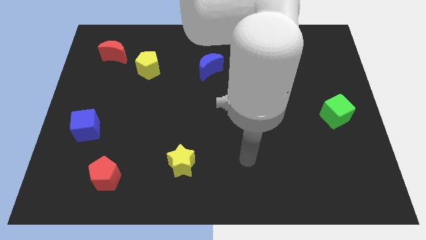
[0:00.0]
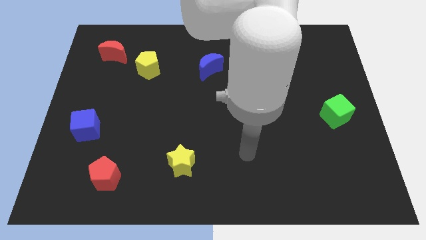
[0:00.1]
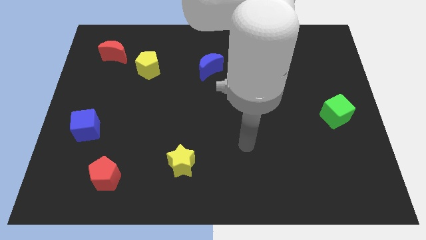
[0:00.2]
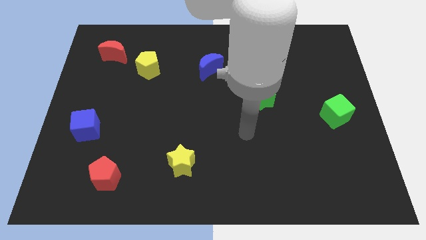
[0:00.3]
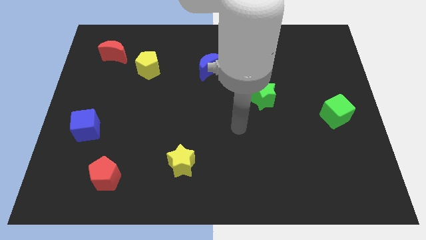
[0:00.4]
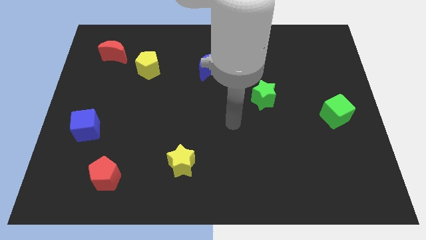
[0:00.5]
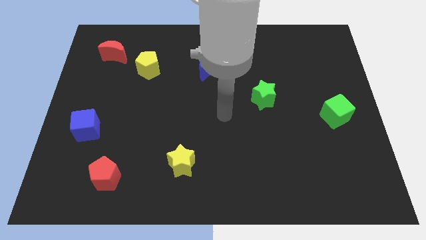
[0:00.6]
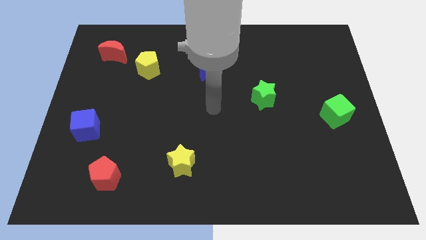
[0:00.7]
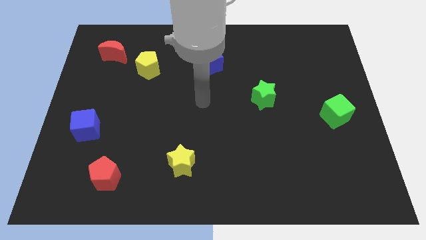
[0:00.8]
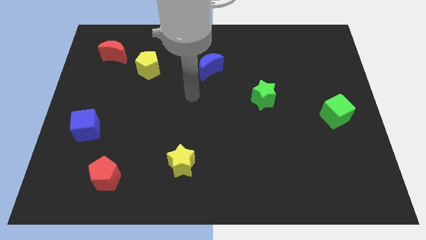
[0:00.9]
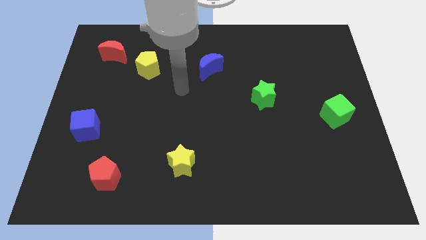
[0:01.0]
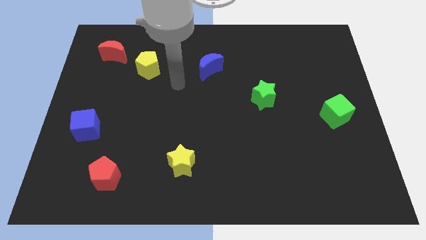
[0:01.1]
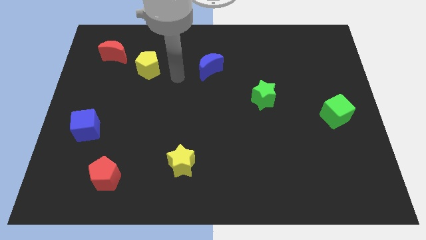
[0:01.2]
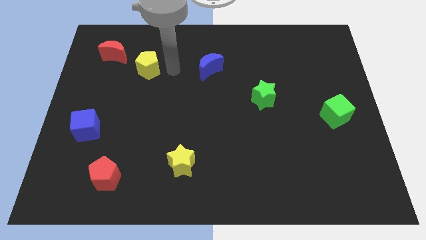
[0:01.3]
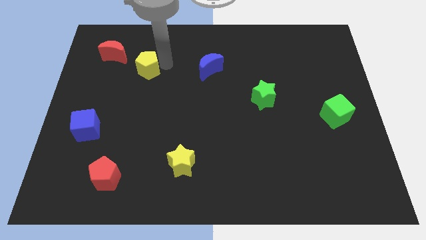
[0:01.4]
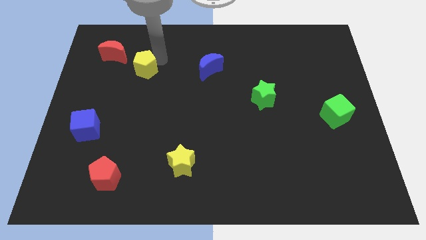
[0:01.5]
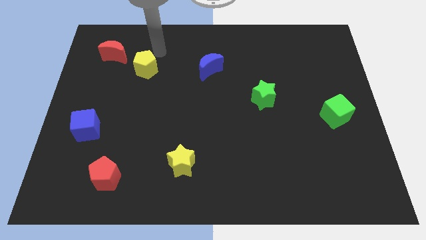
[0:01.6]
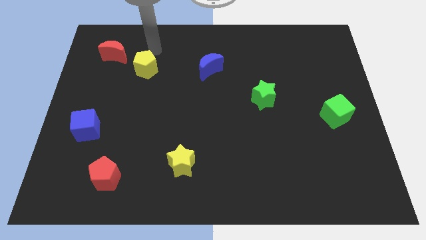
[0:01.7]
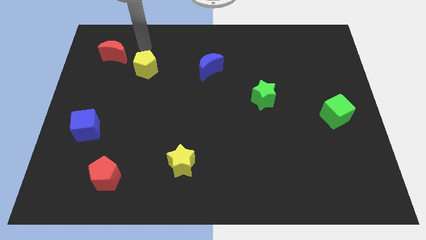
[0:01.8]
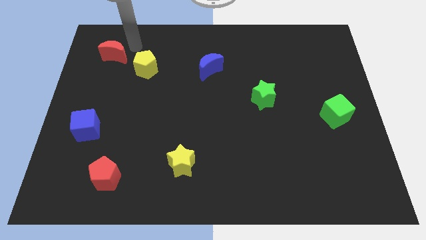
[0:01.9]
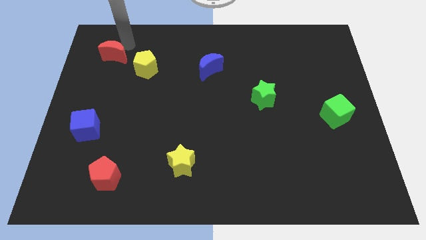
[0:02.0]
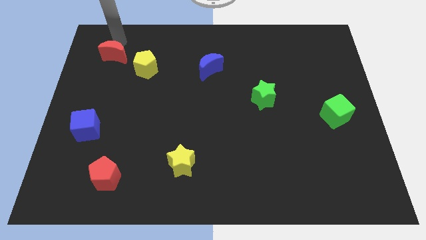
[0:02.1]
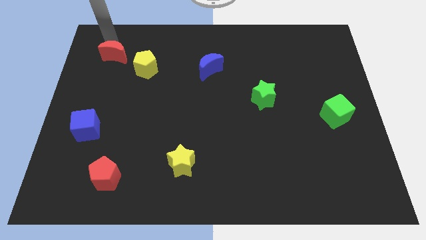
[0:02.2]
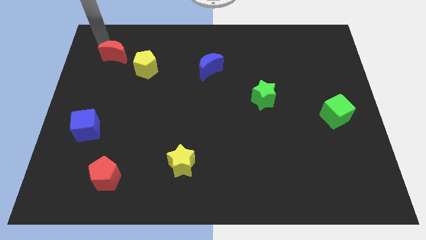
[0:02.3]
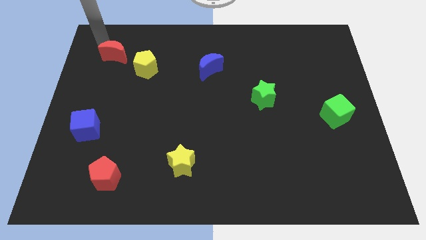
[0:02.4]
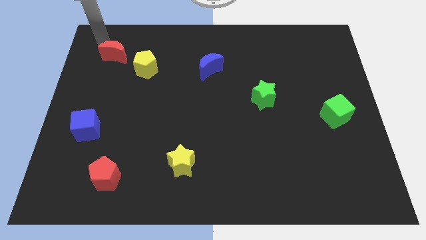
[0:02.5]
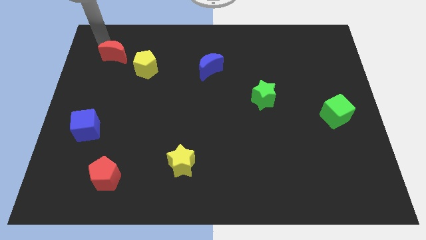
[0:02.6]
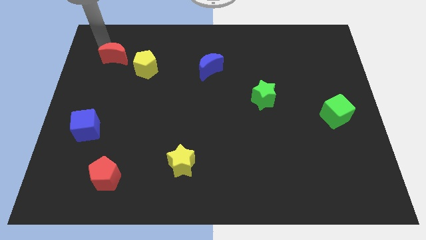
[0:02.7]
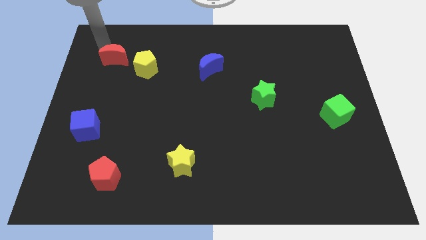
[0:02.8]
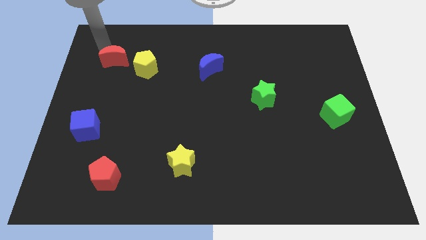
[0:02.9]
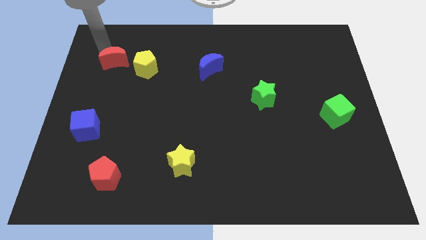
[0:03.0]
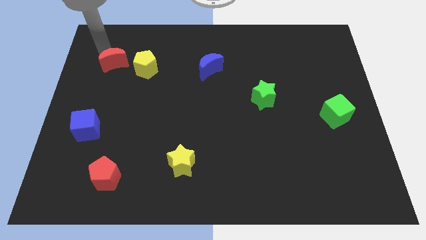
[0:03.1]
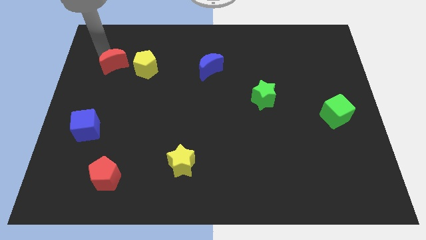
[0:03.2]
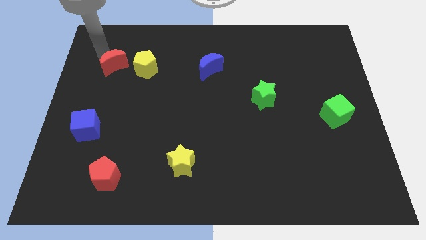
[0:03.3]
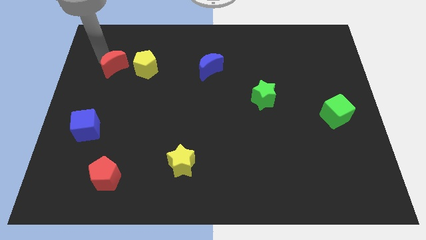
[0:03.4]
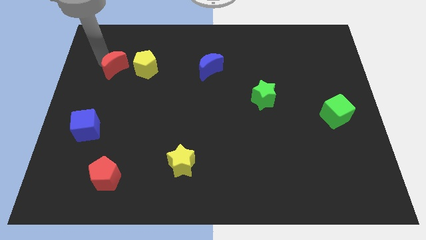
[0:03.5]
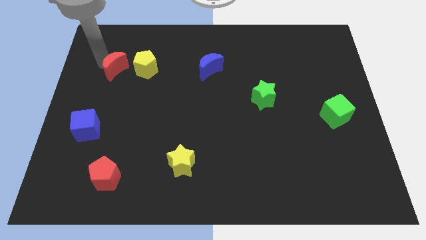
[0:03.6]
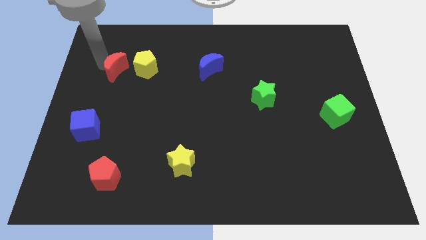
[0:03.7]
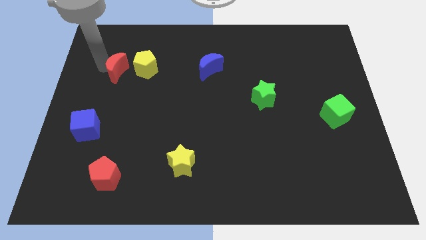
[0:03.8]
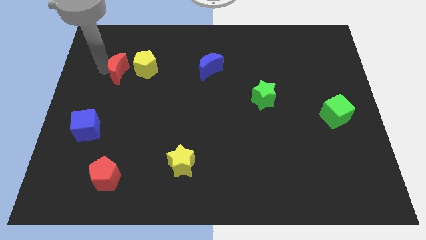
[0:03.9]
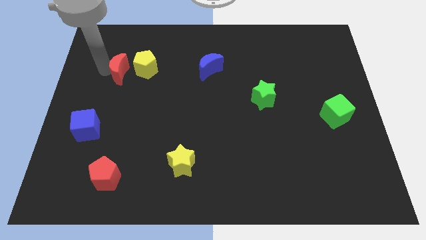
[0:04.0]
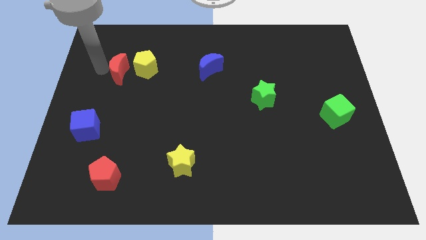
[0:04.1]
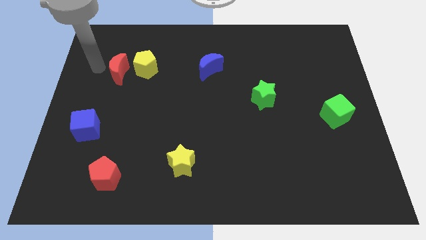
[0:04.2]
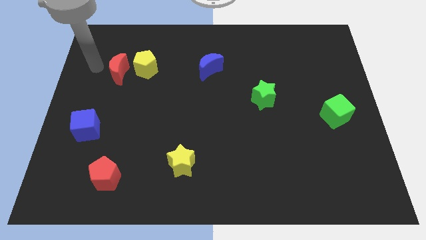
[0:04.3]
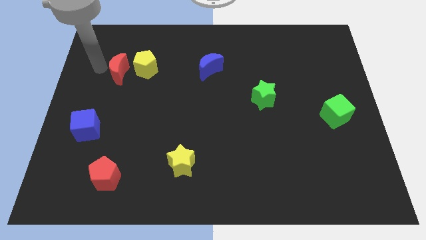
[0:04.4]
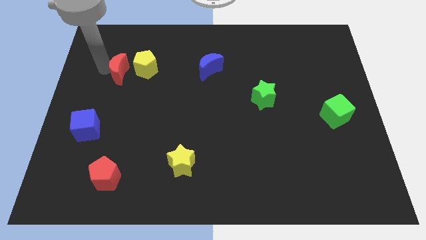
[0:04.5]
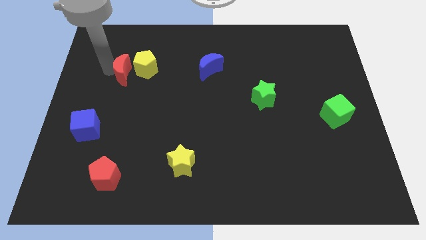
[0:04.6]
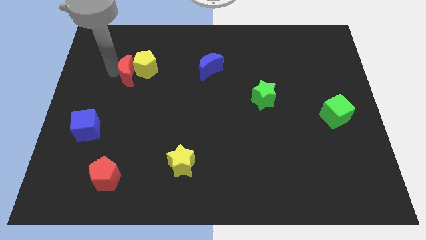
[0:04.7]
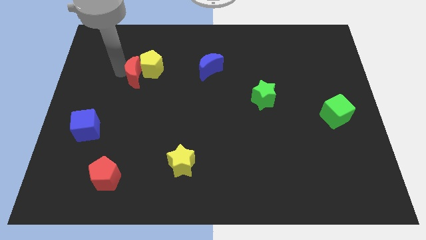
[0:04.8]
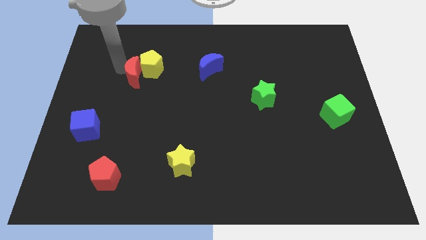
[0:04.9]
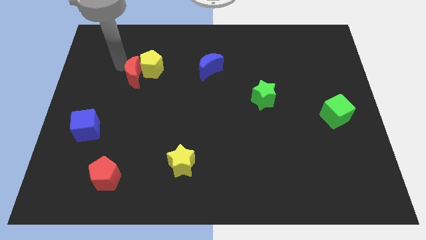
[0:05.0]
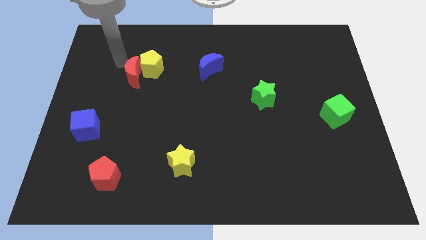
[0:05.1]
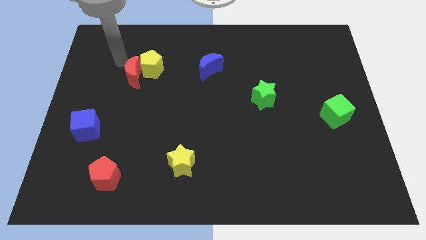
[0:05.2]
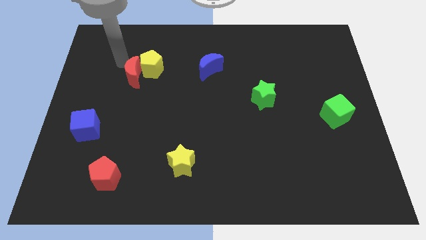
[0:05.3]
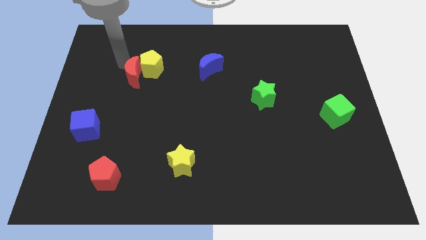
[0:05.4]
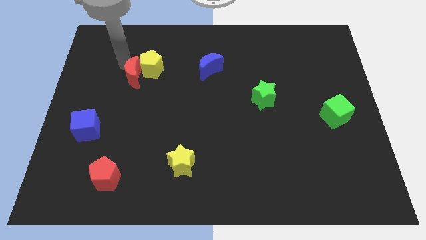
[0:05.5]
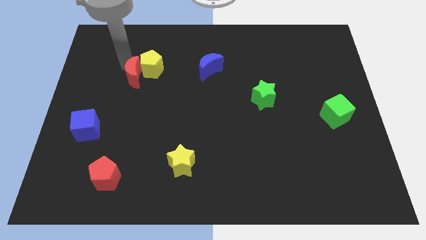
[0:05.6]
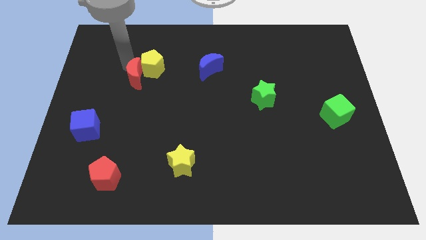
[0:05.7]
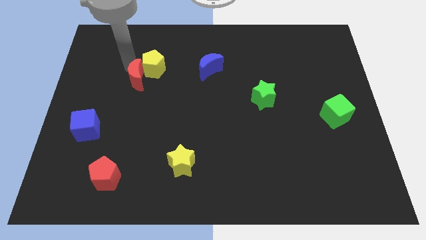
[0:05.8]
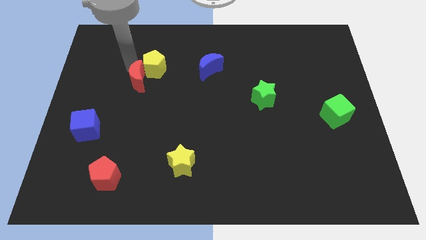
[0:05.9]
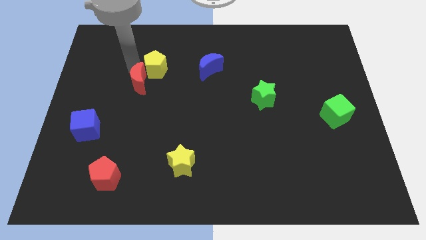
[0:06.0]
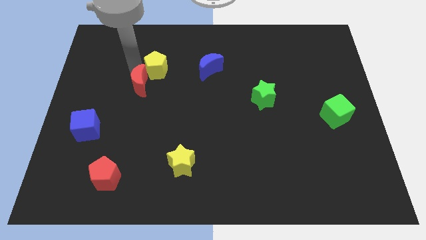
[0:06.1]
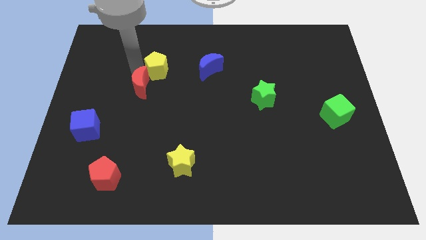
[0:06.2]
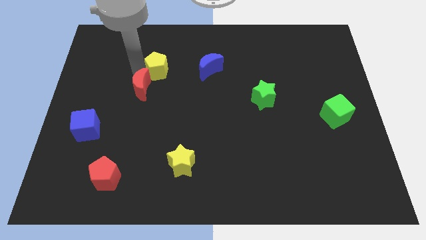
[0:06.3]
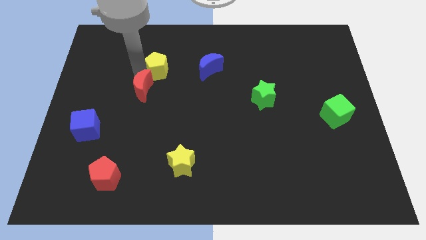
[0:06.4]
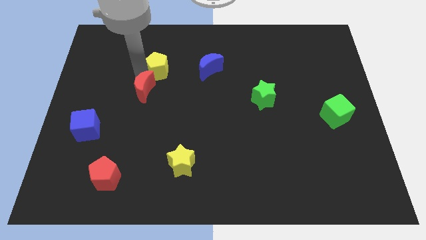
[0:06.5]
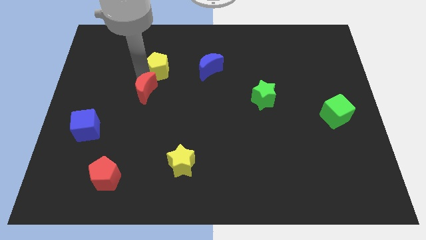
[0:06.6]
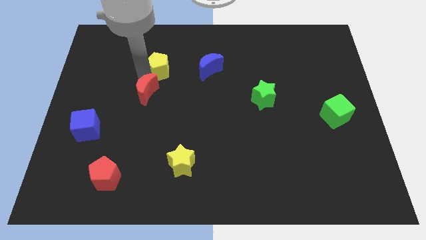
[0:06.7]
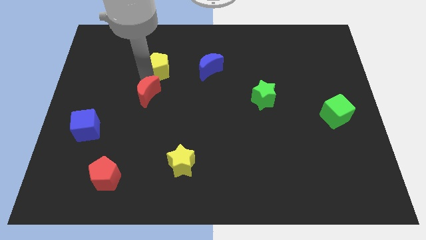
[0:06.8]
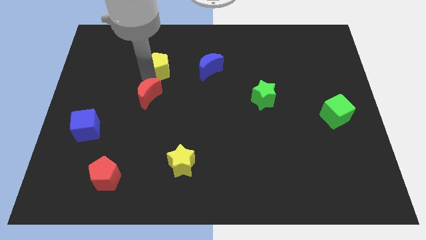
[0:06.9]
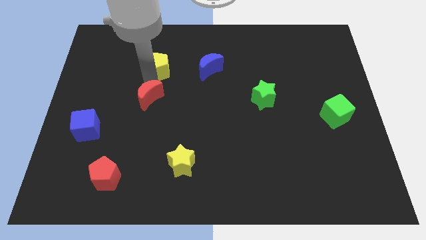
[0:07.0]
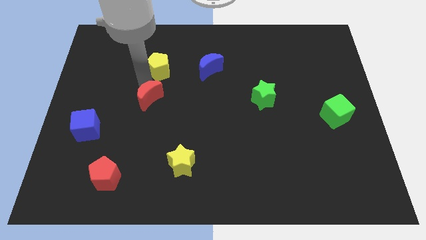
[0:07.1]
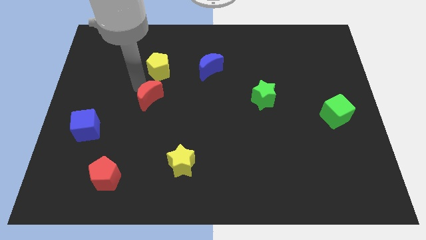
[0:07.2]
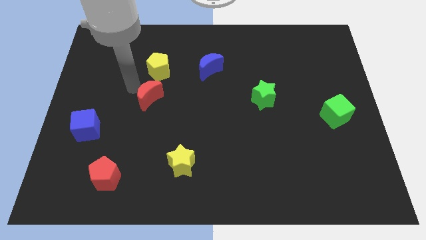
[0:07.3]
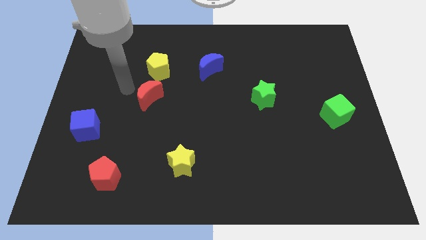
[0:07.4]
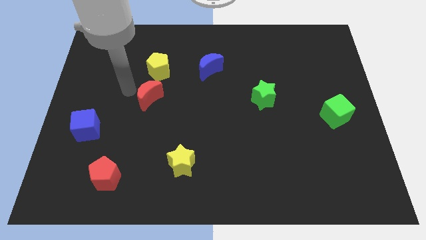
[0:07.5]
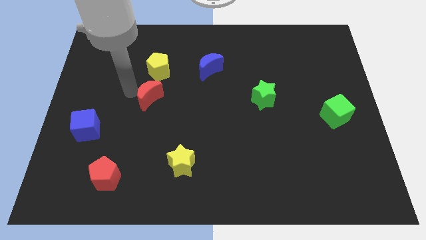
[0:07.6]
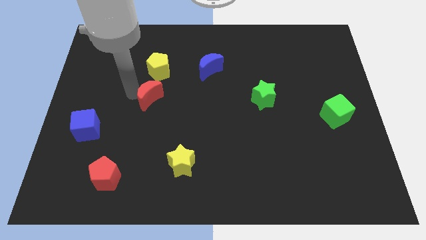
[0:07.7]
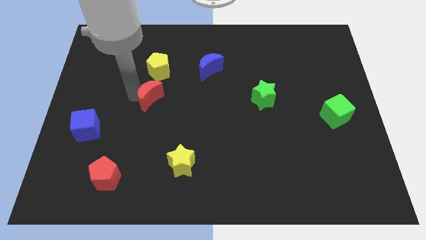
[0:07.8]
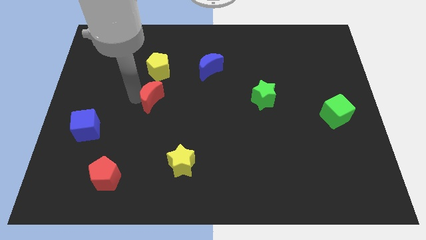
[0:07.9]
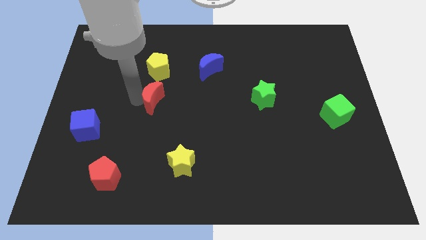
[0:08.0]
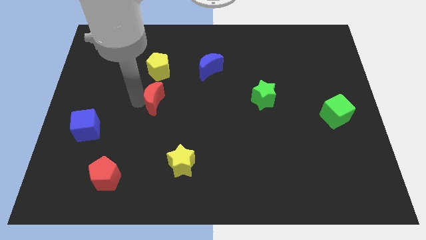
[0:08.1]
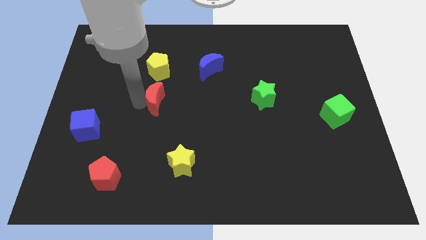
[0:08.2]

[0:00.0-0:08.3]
push the red moon down and to the right diagonally
